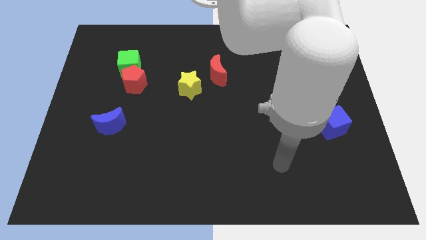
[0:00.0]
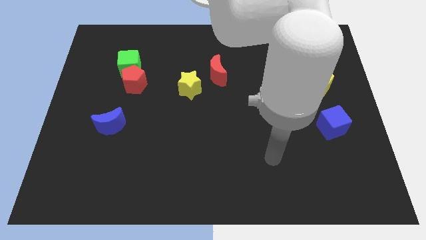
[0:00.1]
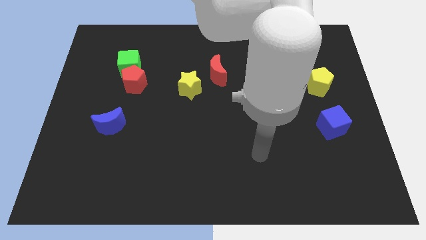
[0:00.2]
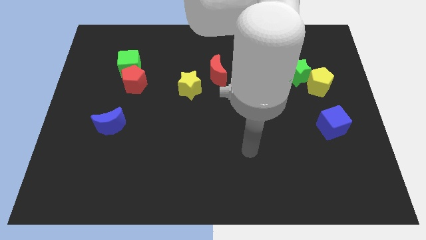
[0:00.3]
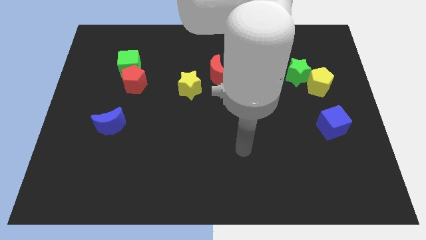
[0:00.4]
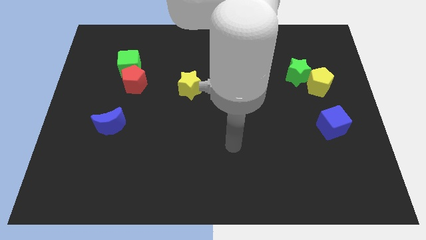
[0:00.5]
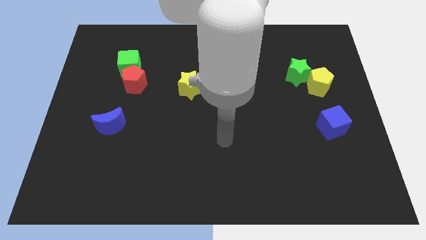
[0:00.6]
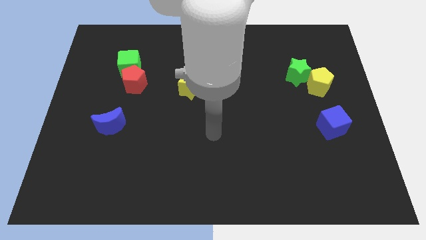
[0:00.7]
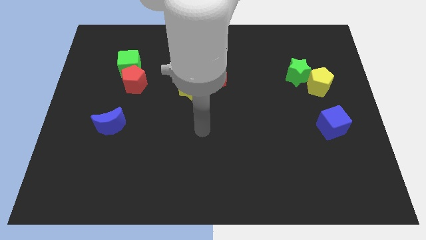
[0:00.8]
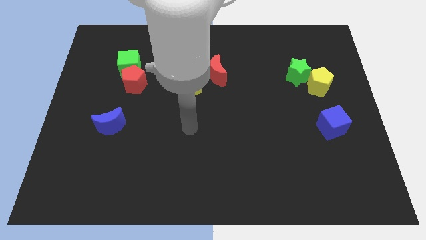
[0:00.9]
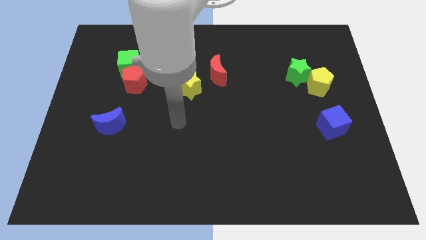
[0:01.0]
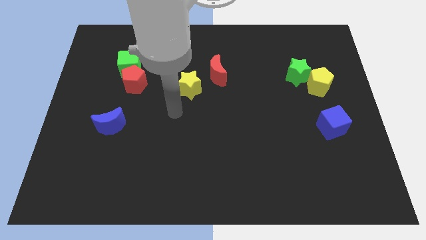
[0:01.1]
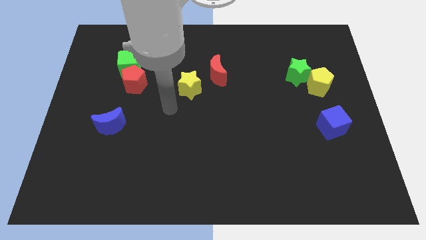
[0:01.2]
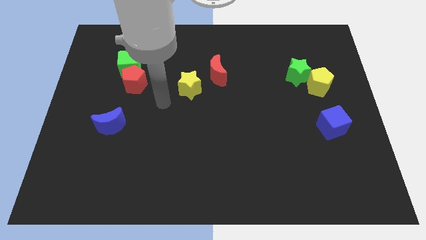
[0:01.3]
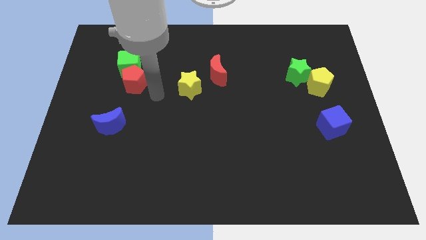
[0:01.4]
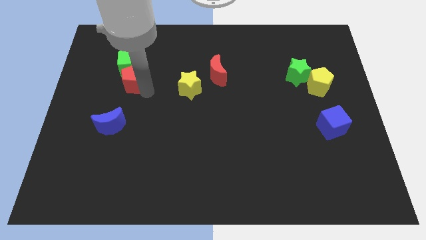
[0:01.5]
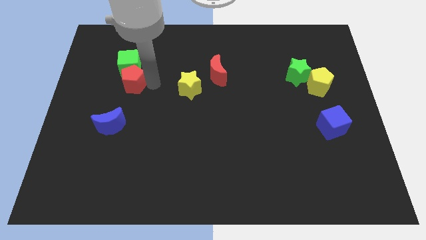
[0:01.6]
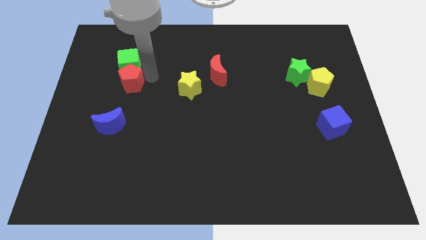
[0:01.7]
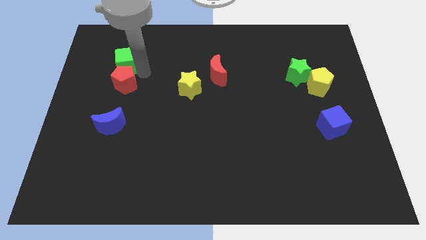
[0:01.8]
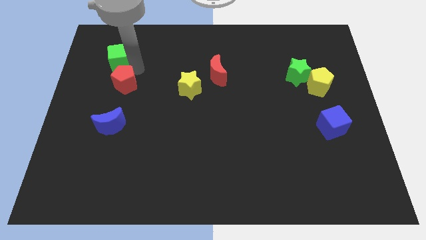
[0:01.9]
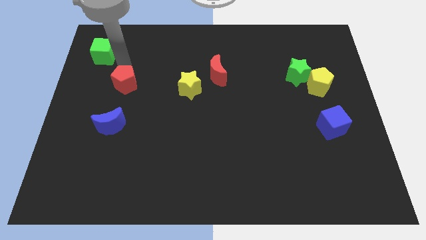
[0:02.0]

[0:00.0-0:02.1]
move the red pentagon away from the green cube

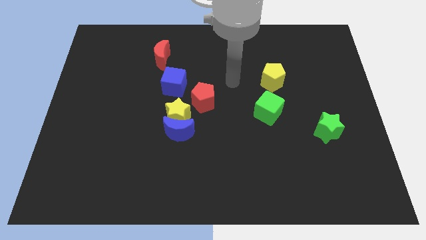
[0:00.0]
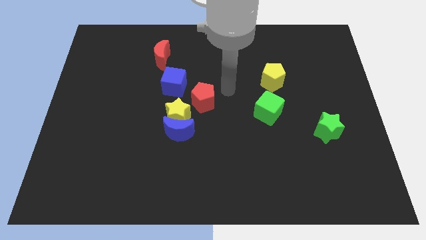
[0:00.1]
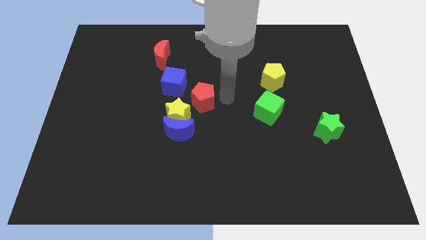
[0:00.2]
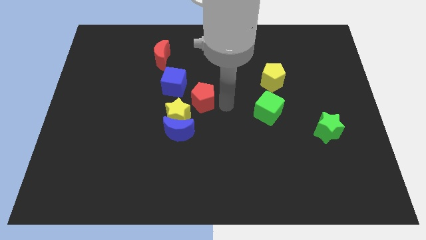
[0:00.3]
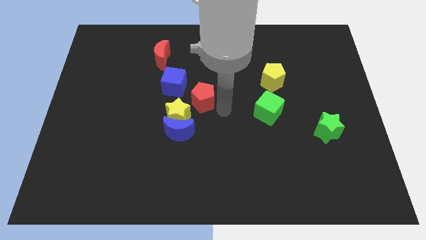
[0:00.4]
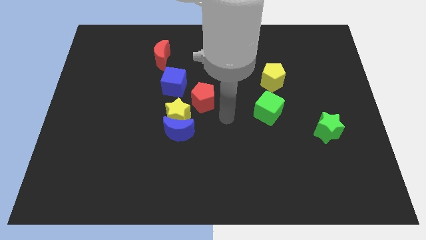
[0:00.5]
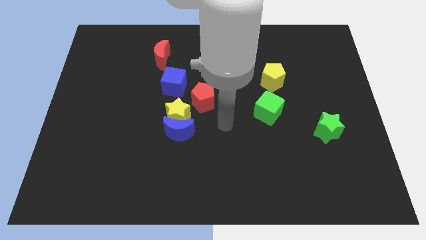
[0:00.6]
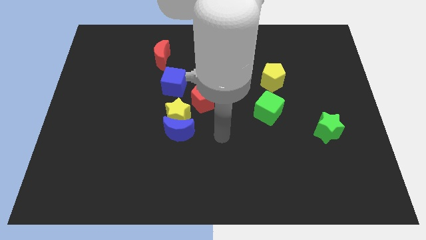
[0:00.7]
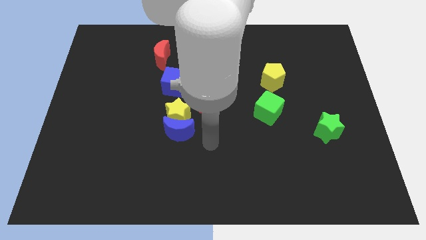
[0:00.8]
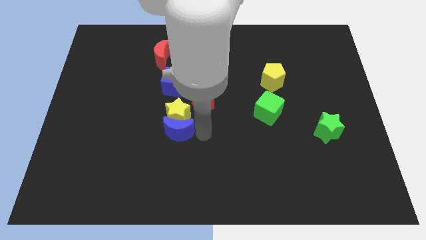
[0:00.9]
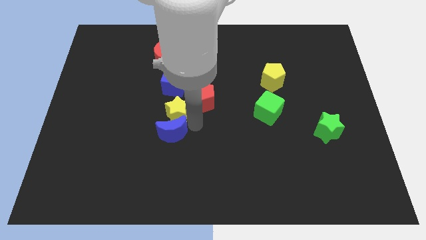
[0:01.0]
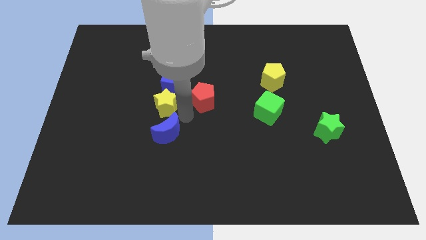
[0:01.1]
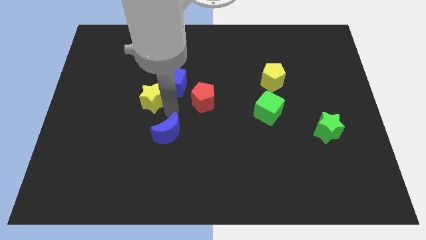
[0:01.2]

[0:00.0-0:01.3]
separate the blue moon from the yellow star

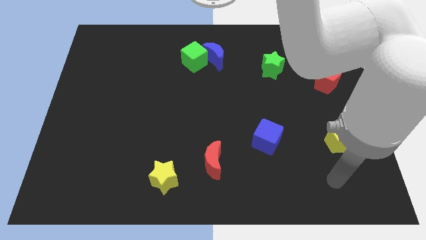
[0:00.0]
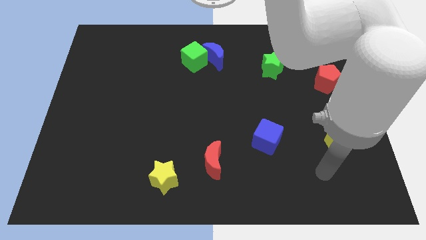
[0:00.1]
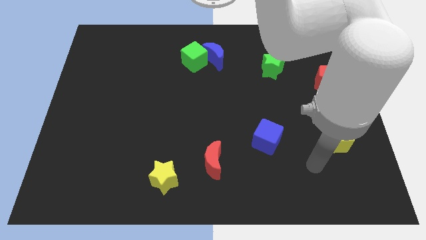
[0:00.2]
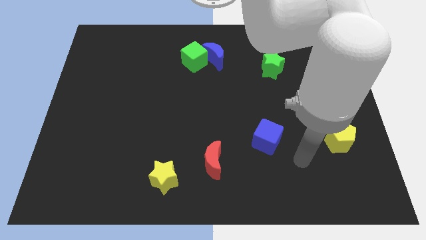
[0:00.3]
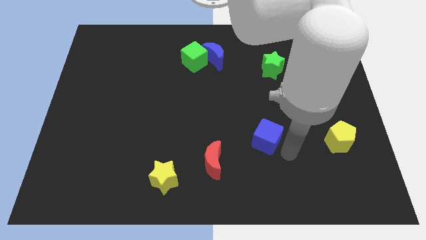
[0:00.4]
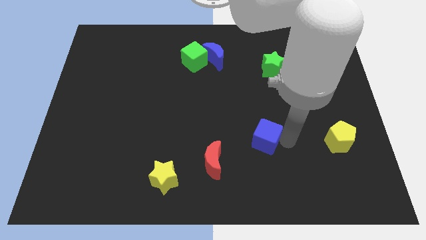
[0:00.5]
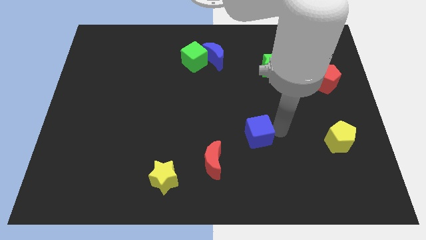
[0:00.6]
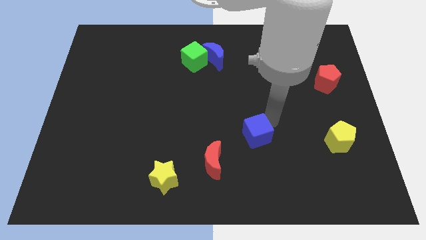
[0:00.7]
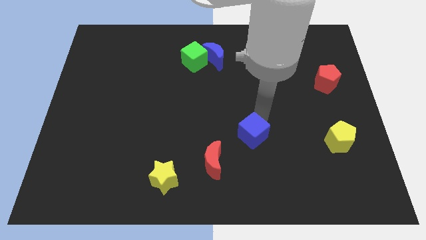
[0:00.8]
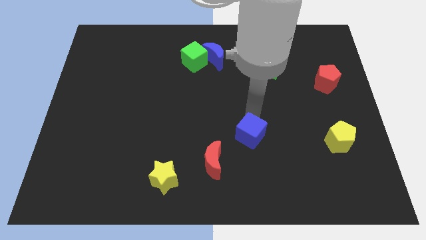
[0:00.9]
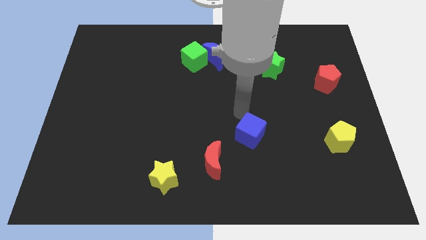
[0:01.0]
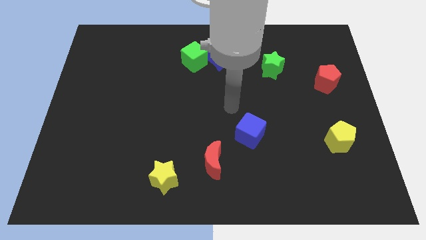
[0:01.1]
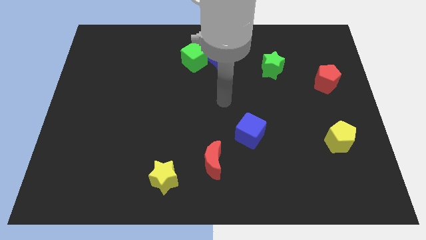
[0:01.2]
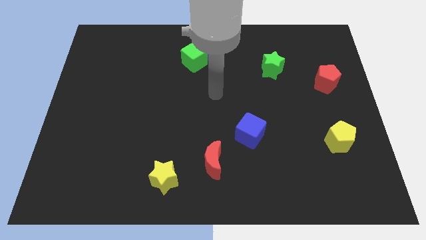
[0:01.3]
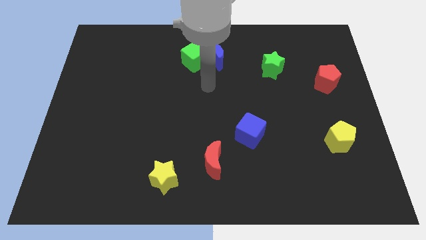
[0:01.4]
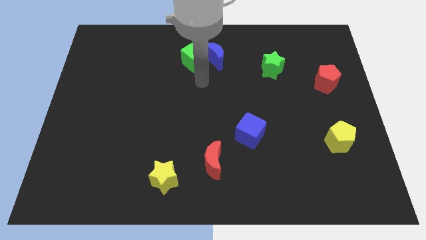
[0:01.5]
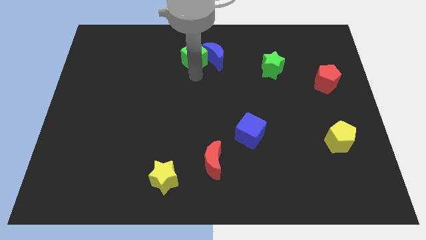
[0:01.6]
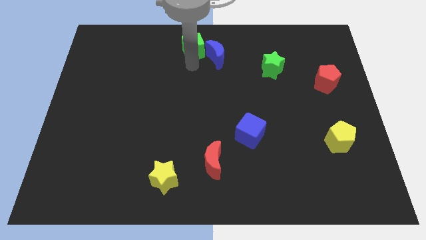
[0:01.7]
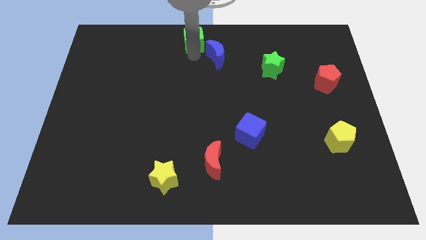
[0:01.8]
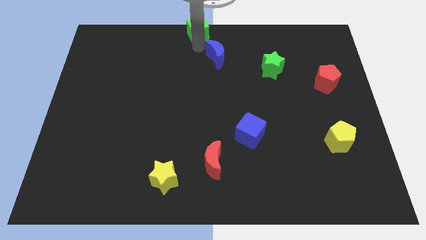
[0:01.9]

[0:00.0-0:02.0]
pull the blue moon apart from the green cube

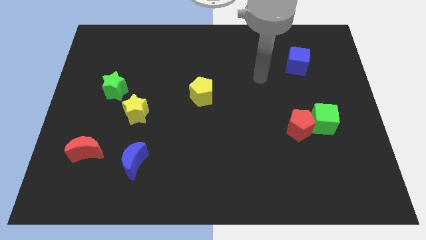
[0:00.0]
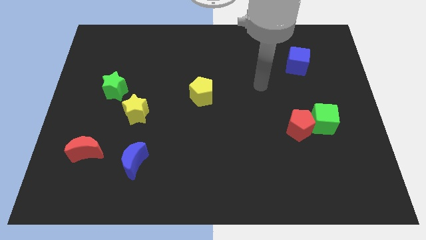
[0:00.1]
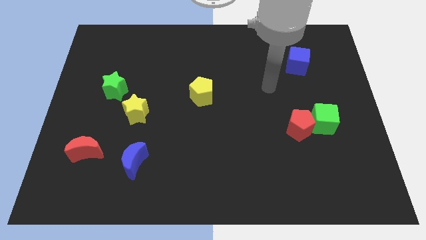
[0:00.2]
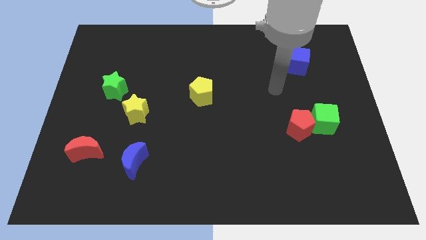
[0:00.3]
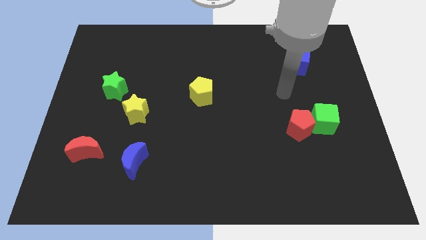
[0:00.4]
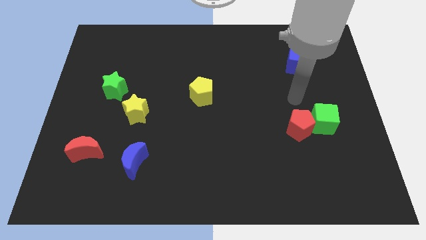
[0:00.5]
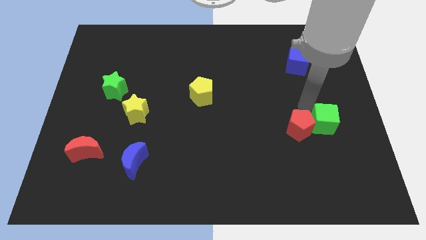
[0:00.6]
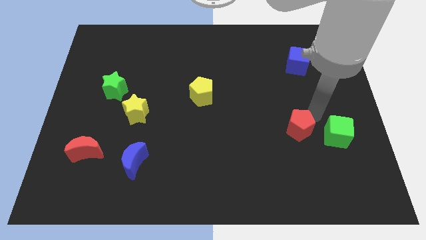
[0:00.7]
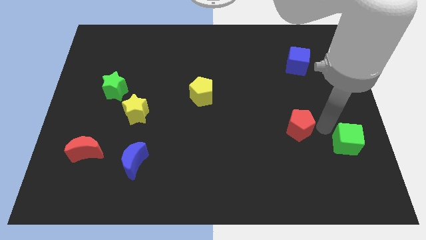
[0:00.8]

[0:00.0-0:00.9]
separate the red pentagon from the green cube

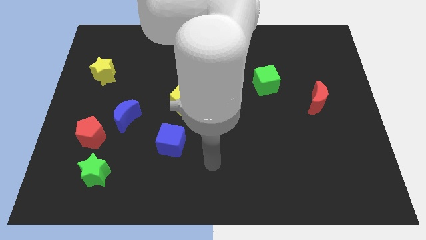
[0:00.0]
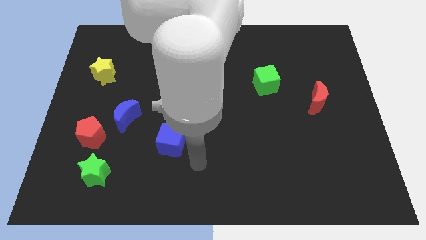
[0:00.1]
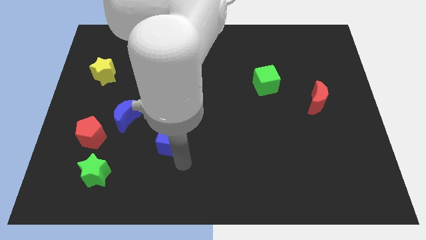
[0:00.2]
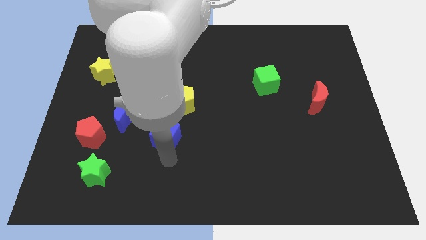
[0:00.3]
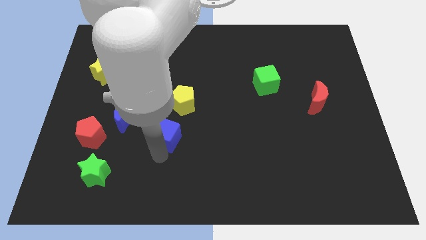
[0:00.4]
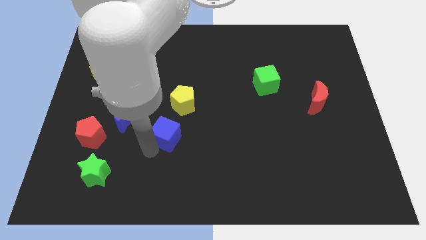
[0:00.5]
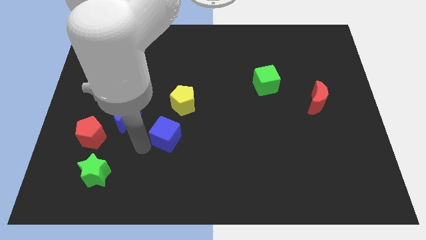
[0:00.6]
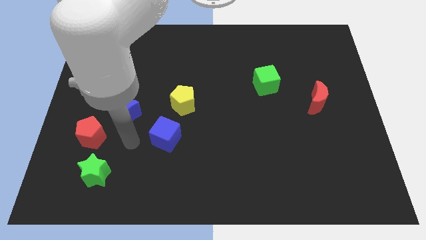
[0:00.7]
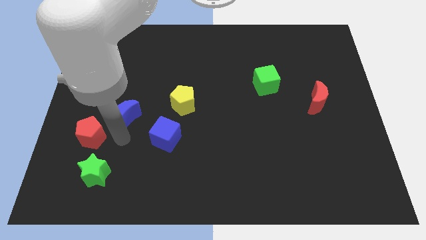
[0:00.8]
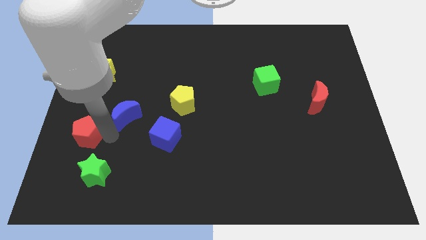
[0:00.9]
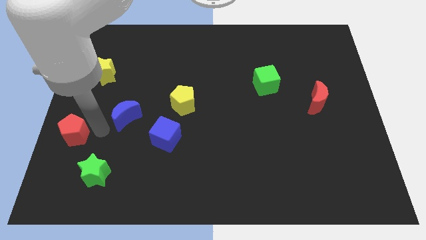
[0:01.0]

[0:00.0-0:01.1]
pull the blue moon apart from the red pentagon

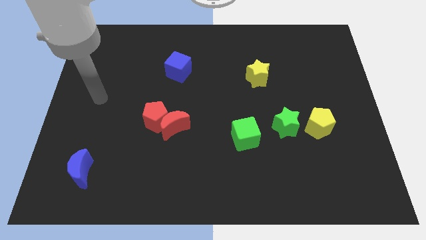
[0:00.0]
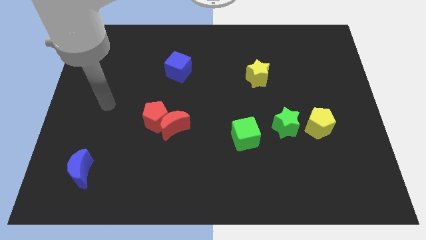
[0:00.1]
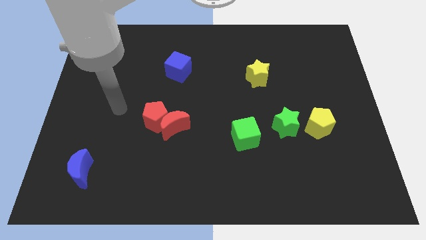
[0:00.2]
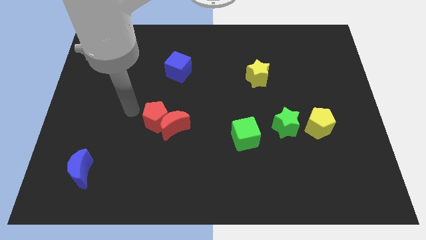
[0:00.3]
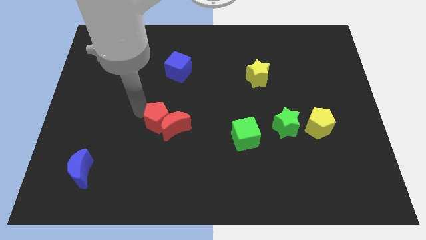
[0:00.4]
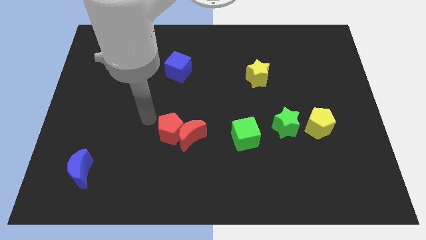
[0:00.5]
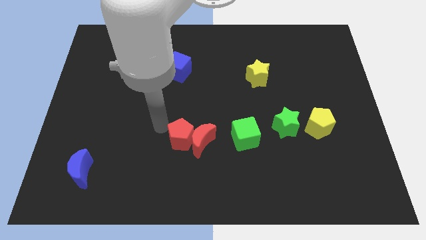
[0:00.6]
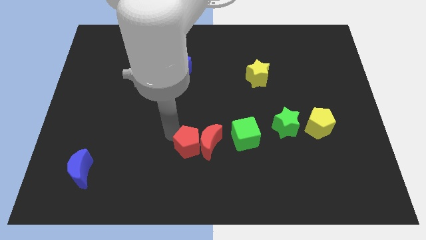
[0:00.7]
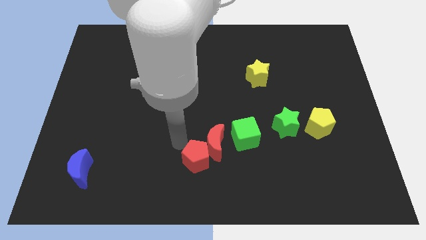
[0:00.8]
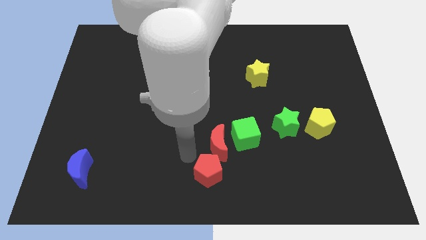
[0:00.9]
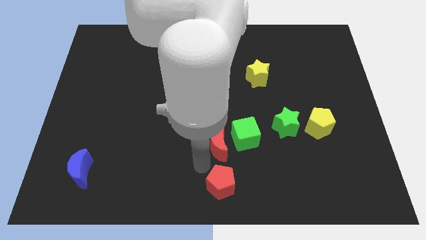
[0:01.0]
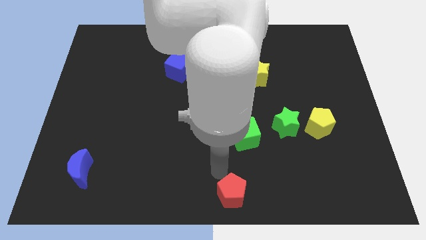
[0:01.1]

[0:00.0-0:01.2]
pull the red moon apart from the red pentagon

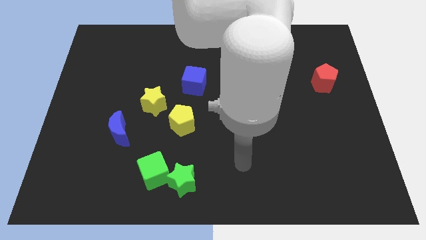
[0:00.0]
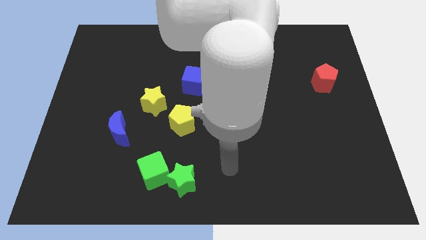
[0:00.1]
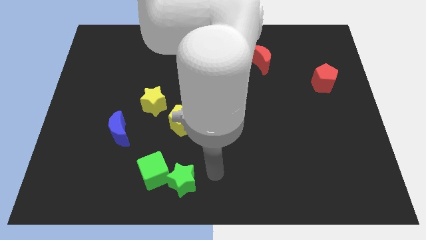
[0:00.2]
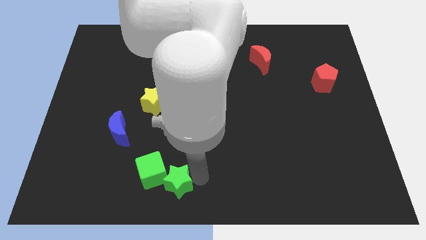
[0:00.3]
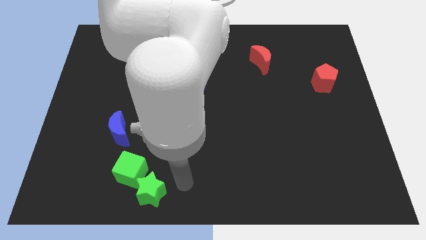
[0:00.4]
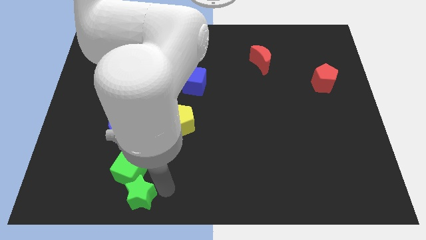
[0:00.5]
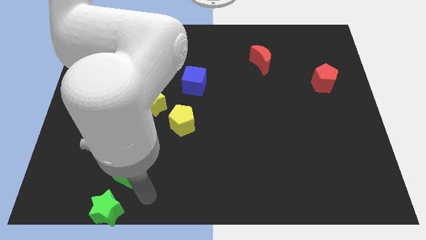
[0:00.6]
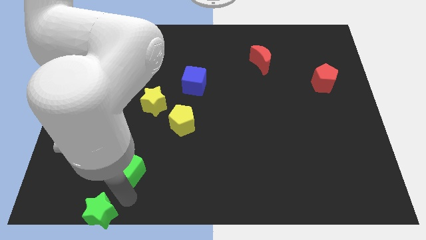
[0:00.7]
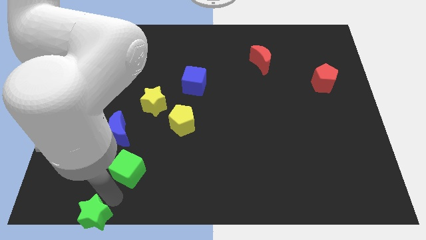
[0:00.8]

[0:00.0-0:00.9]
separate the green cube from the green star
